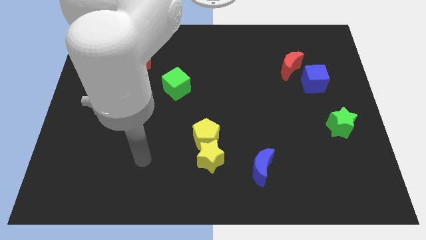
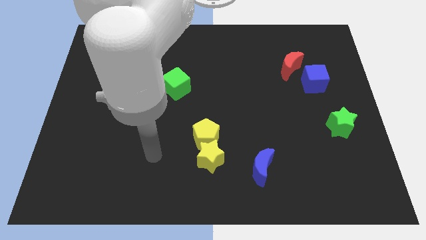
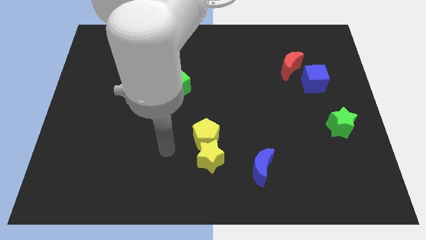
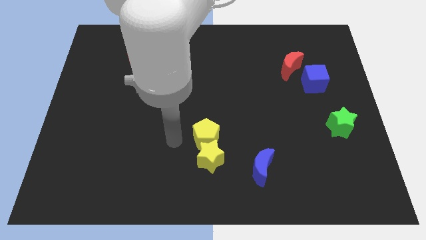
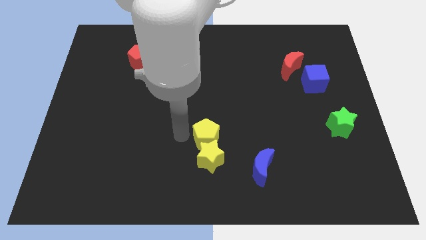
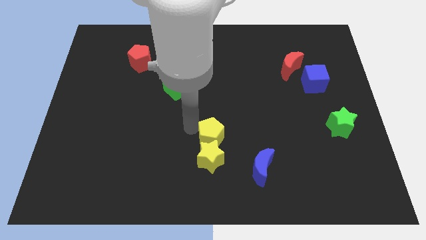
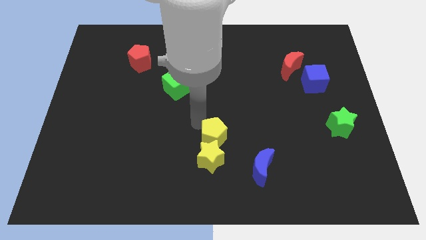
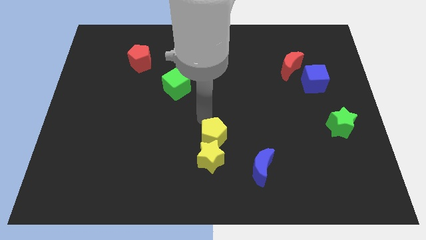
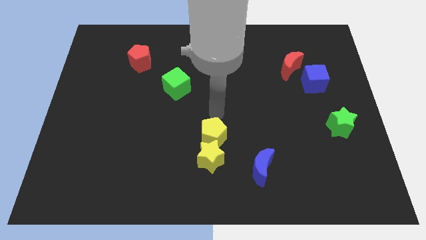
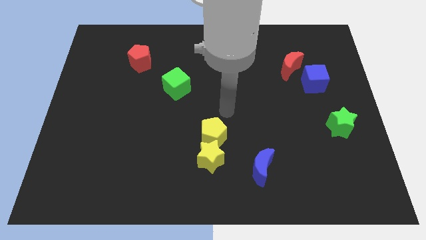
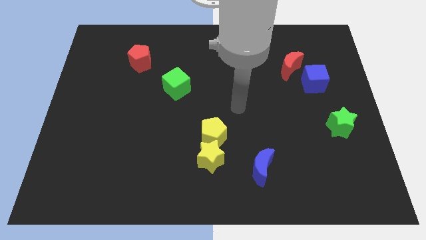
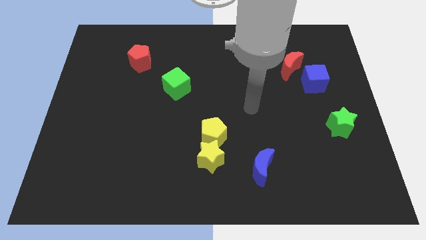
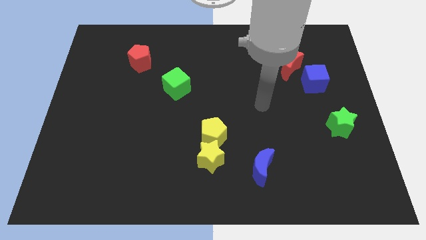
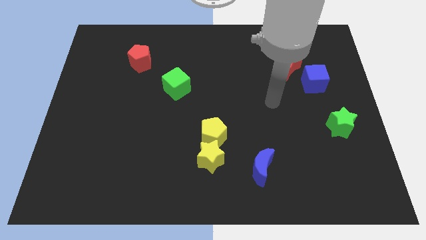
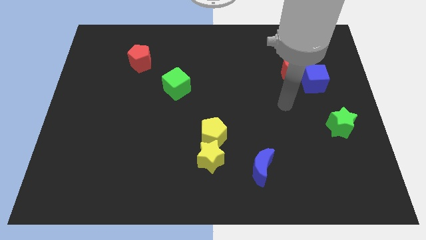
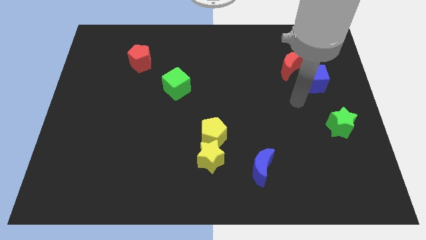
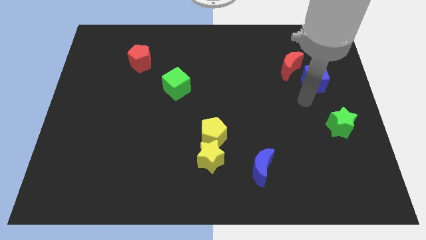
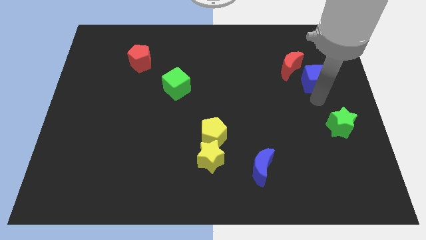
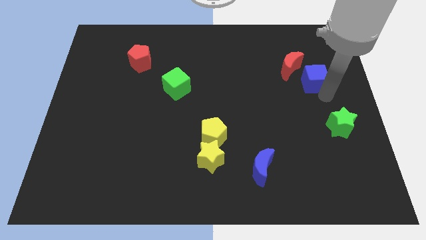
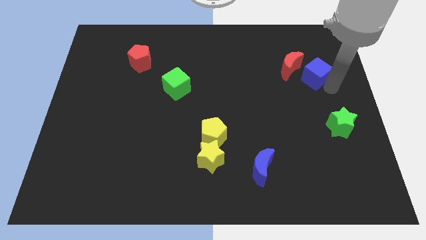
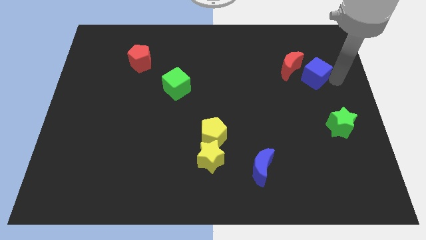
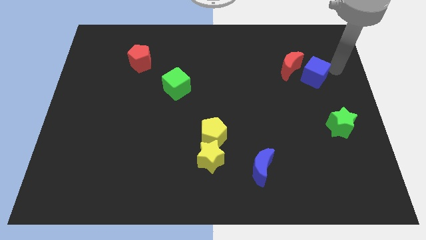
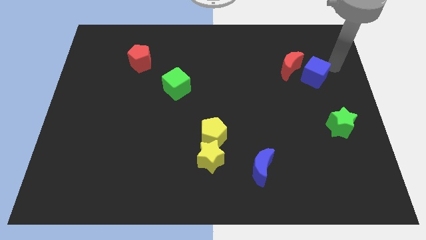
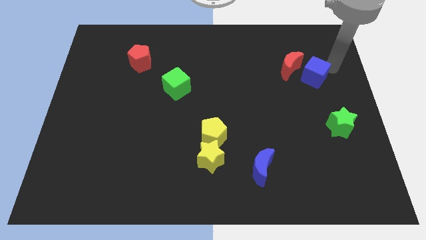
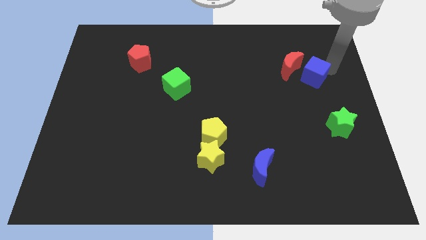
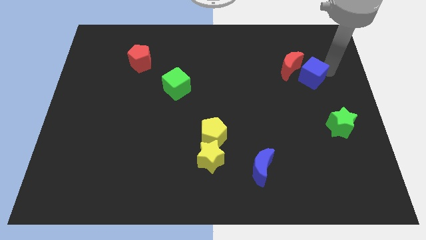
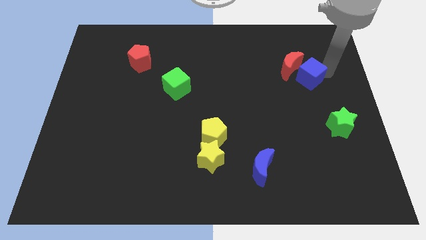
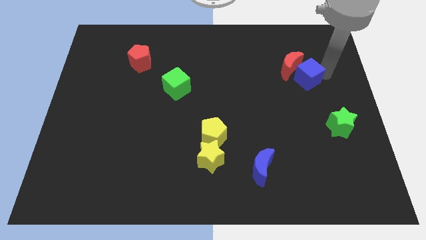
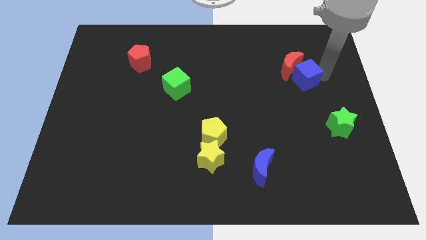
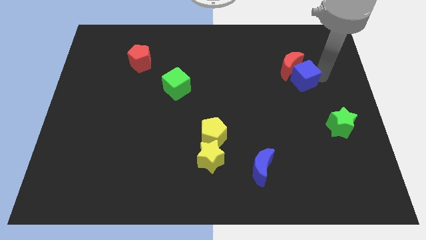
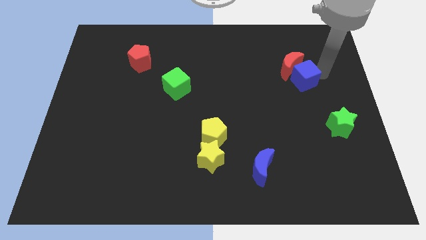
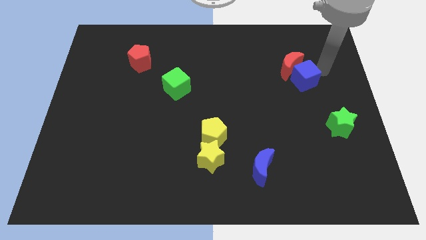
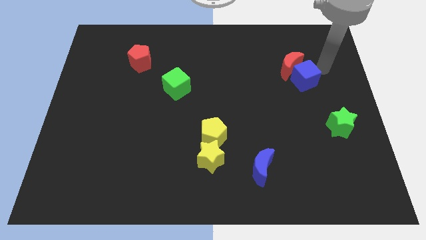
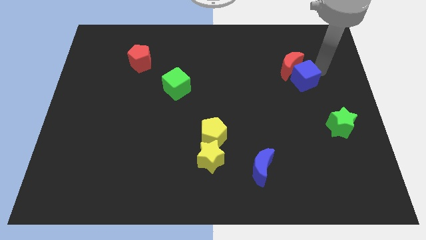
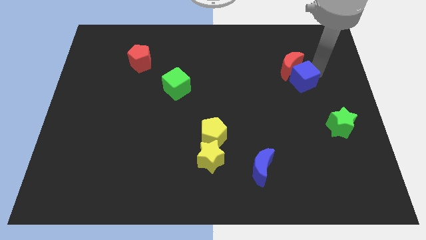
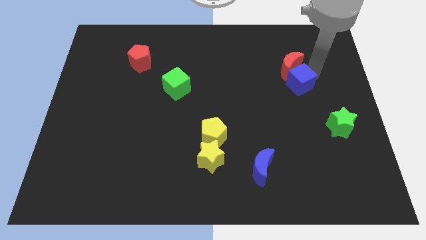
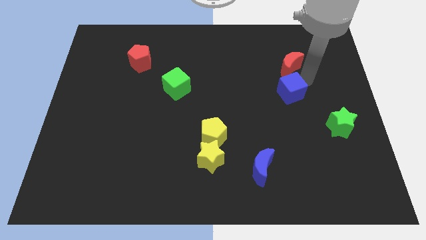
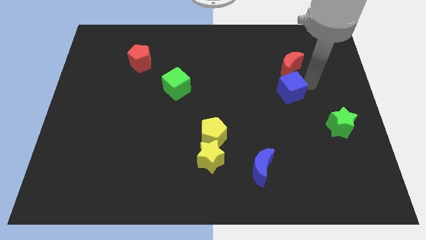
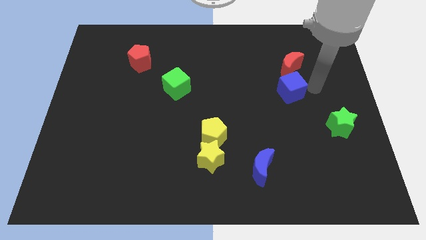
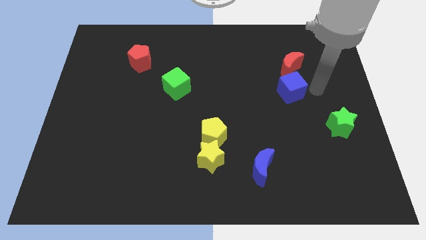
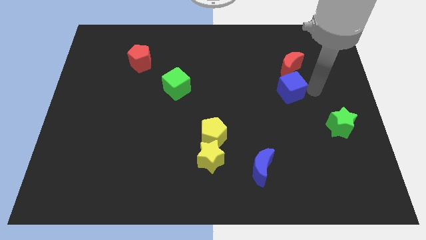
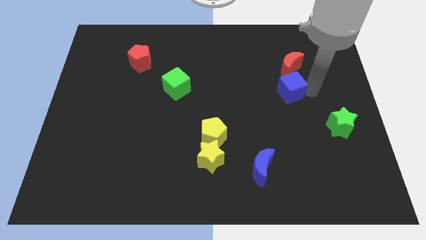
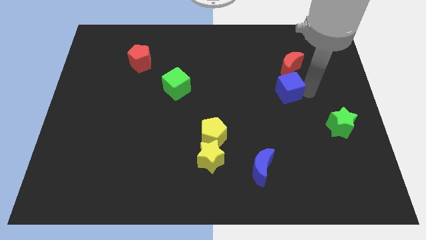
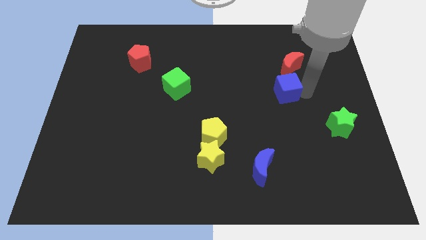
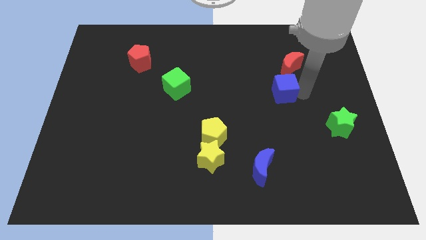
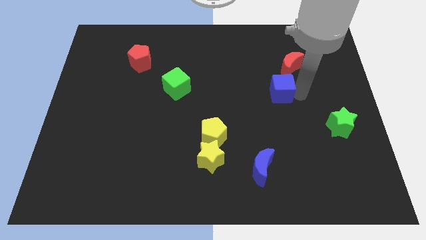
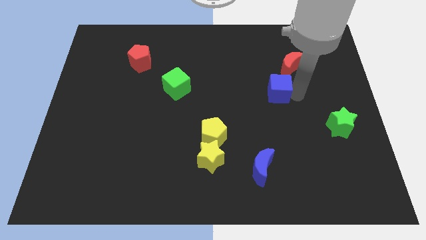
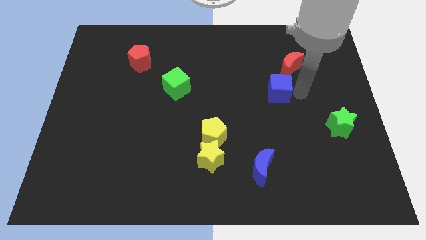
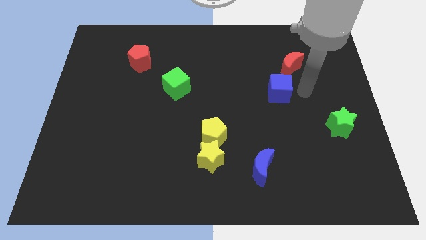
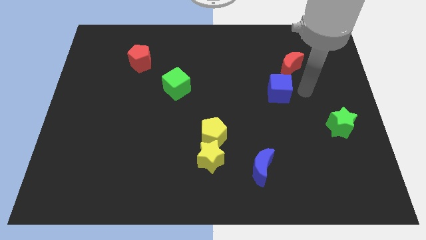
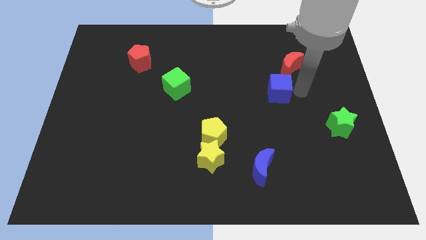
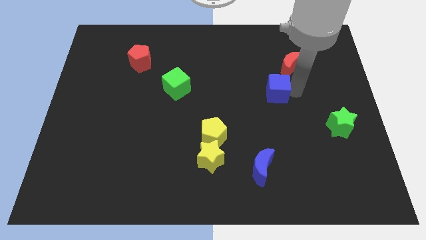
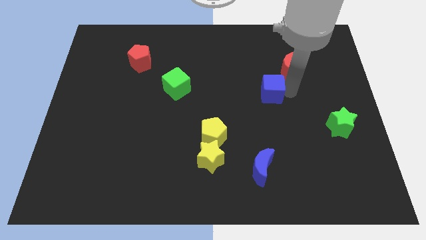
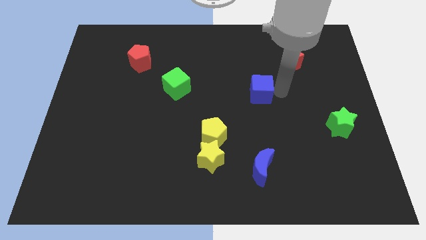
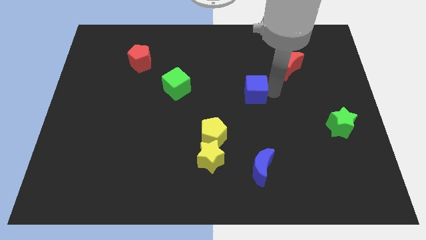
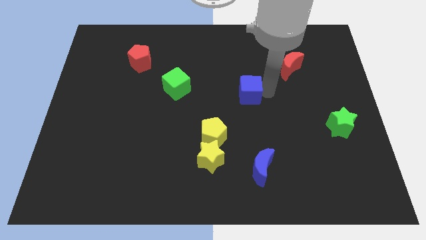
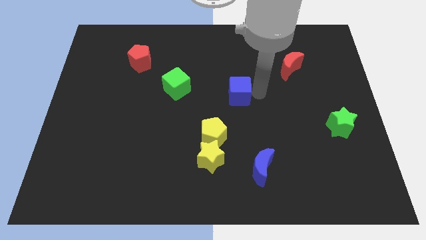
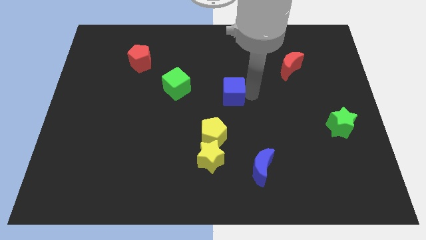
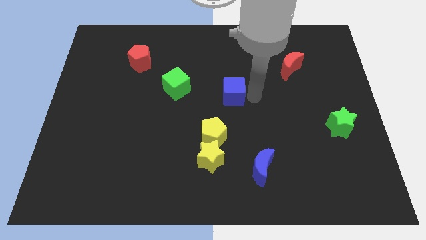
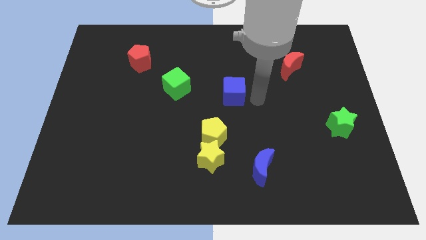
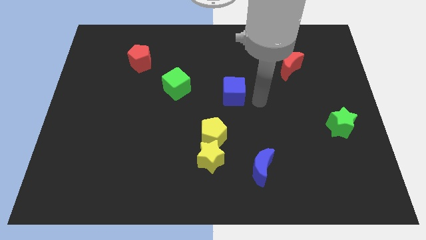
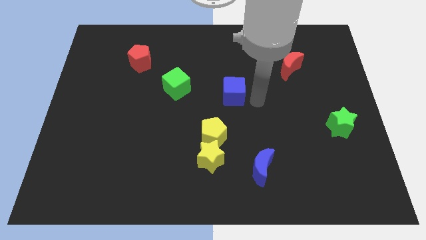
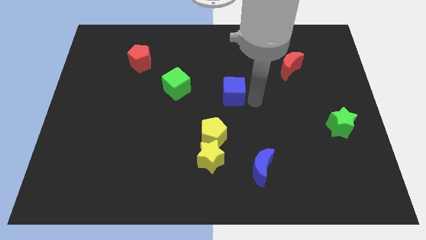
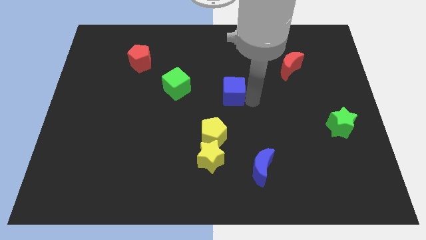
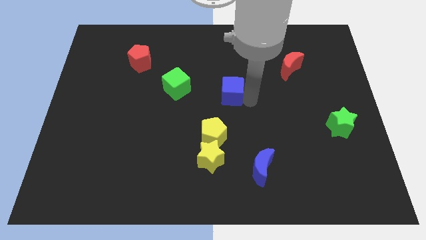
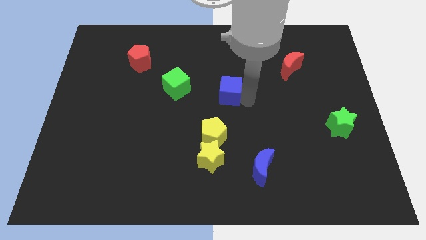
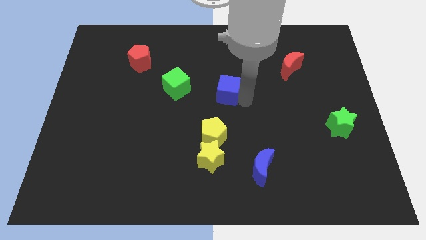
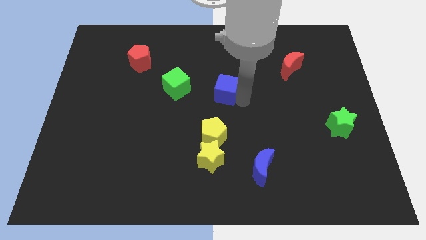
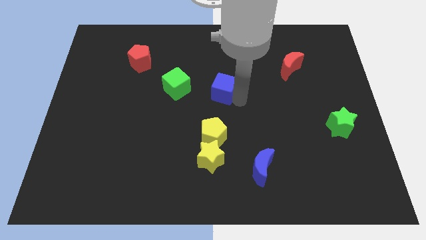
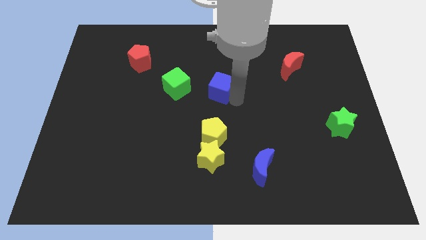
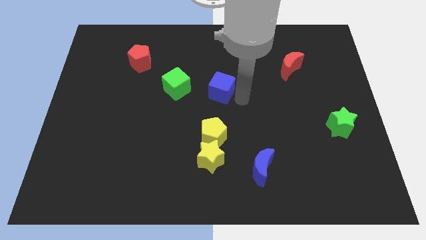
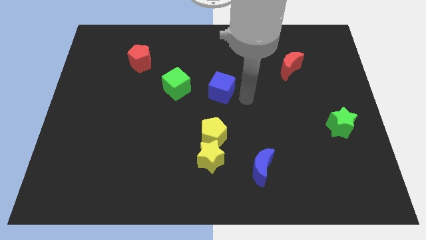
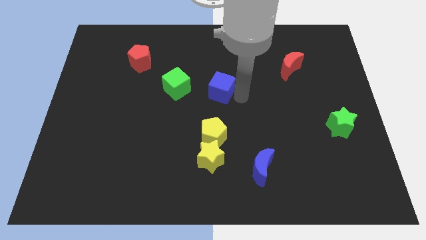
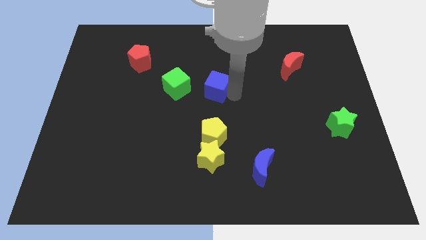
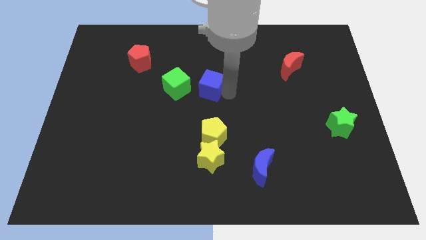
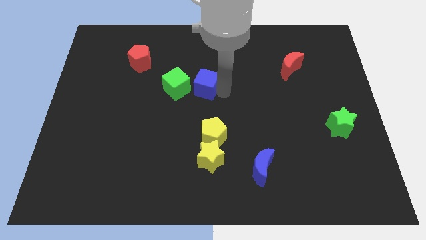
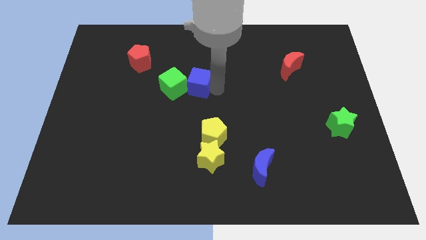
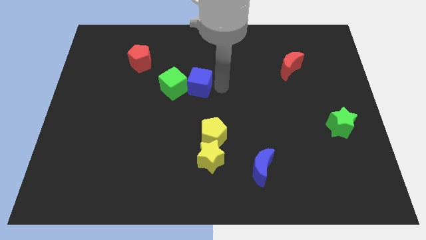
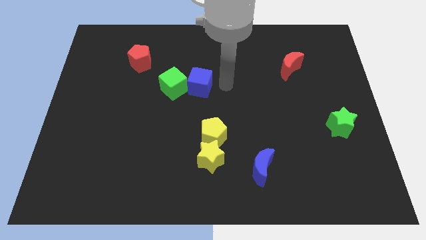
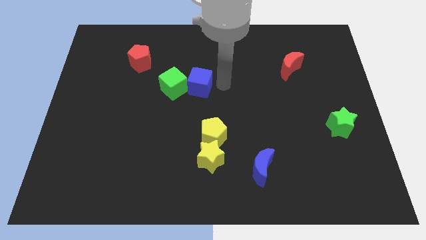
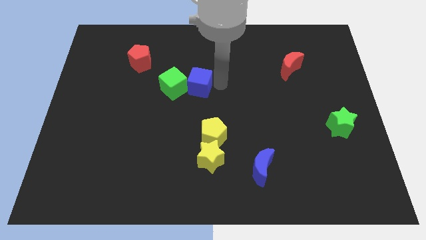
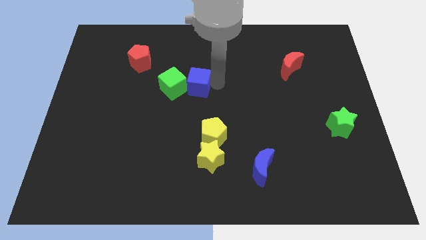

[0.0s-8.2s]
slide the blue cube close to the green cube
